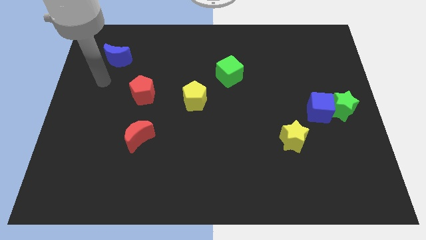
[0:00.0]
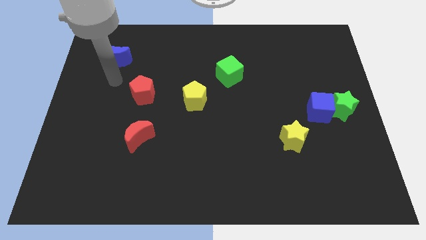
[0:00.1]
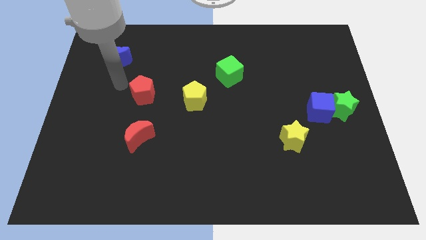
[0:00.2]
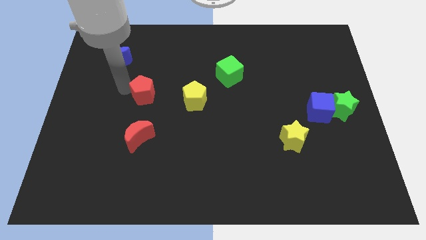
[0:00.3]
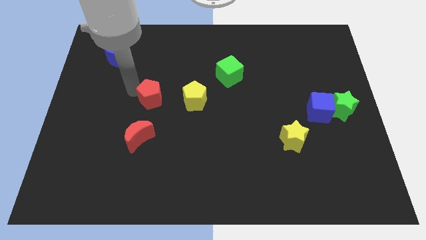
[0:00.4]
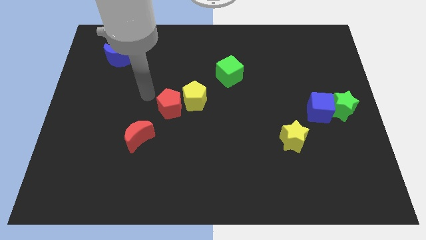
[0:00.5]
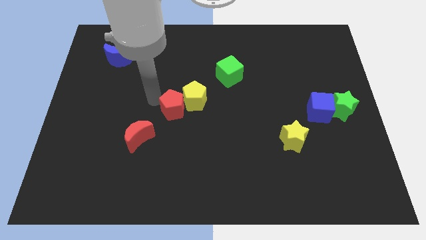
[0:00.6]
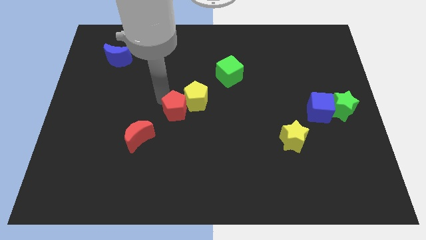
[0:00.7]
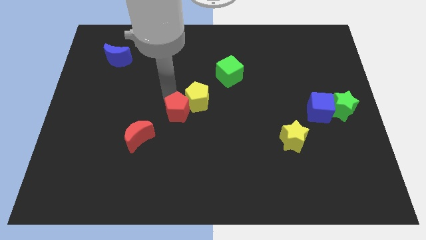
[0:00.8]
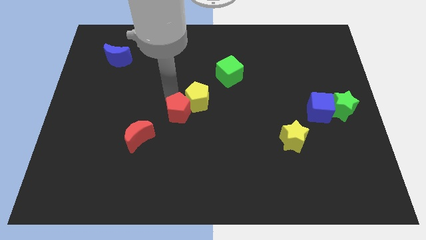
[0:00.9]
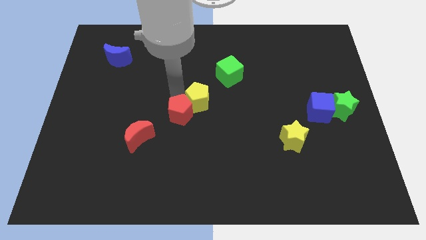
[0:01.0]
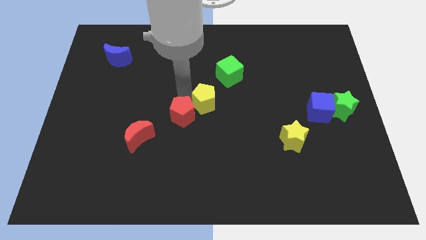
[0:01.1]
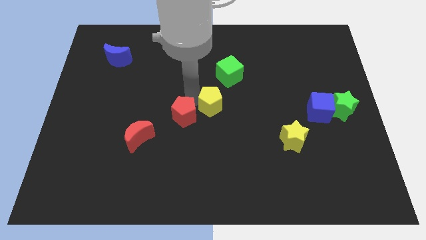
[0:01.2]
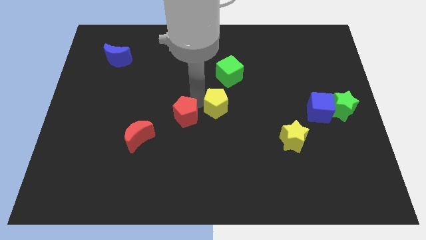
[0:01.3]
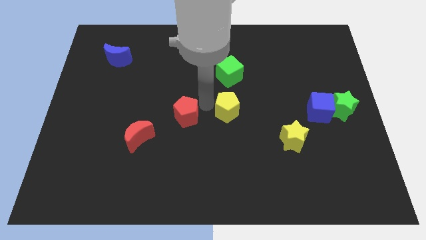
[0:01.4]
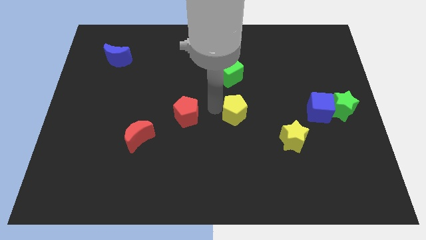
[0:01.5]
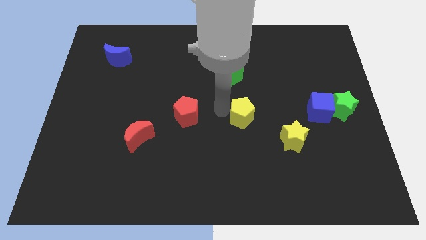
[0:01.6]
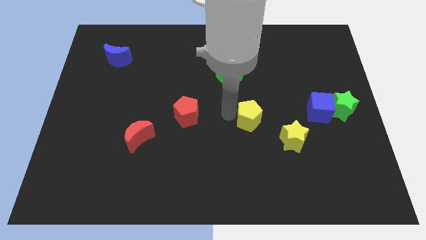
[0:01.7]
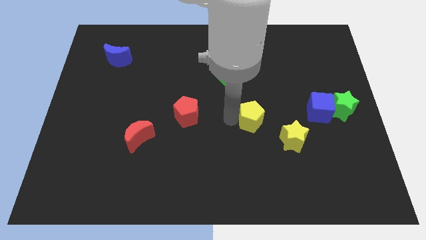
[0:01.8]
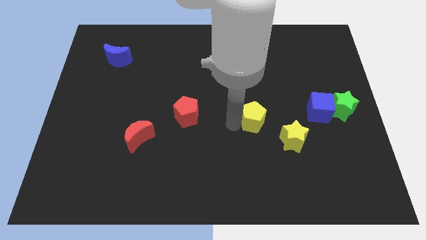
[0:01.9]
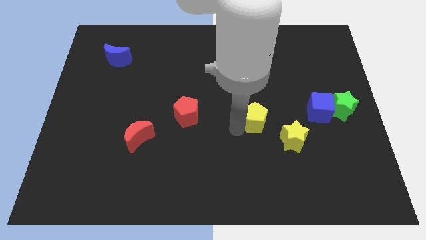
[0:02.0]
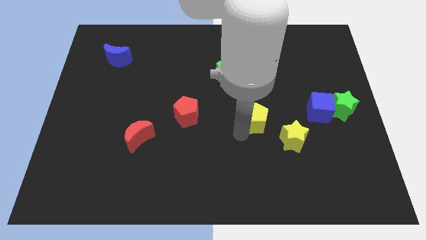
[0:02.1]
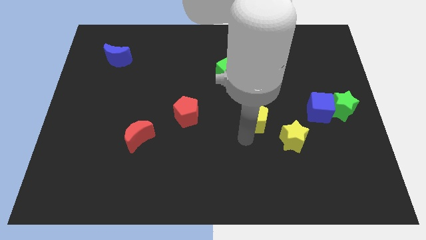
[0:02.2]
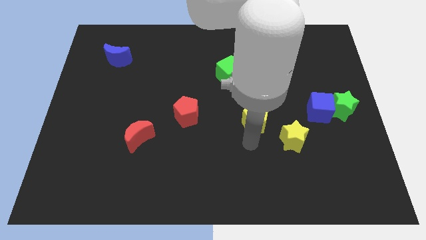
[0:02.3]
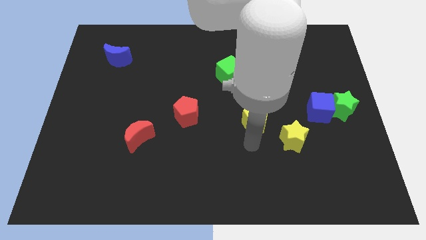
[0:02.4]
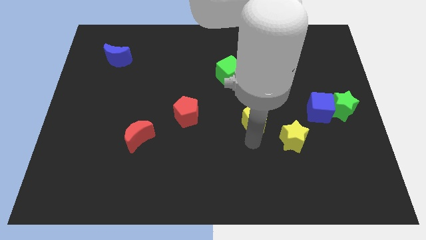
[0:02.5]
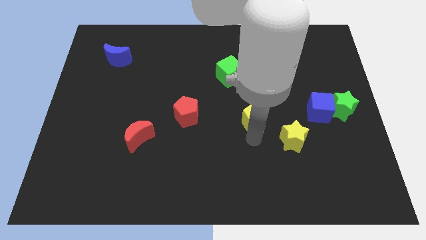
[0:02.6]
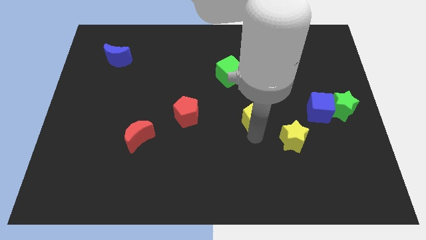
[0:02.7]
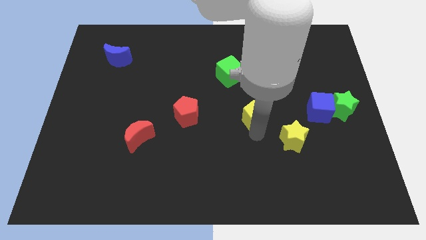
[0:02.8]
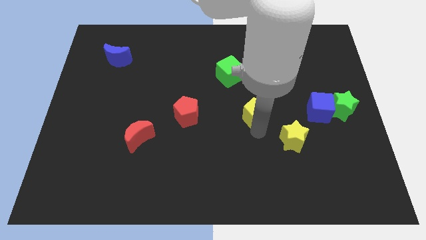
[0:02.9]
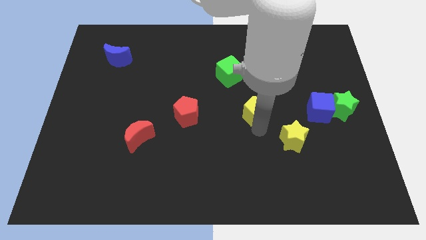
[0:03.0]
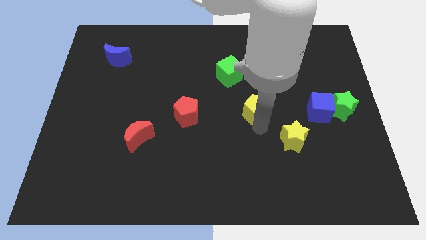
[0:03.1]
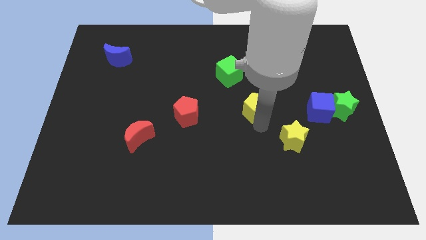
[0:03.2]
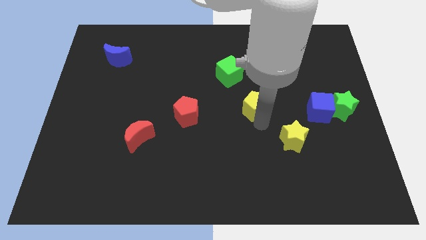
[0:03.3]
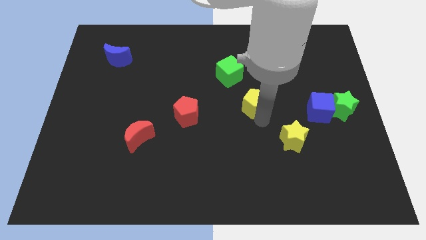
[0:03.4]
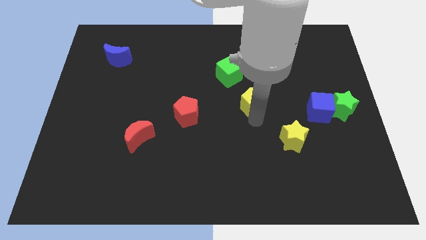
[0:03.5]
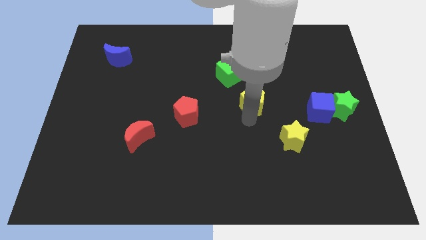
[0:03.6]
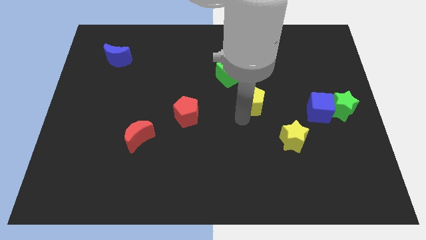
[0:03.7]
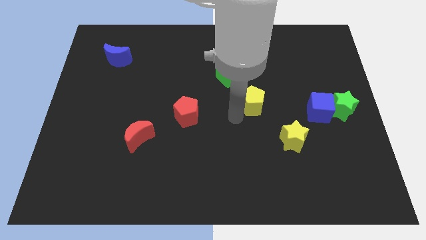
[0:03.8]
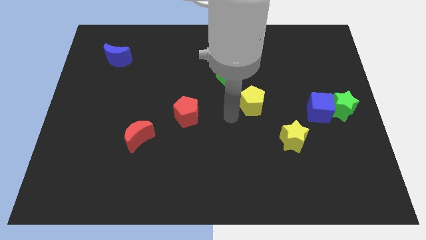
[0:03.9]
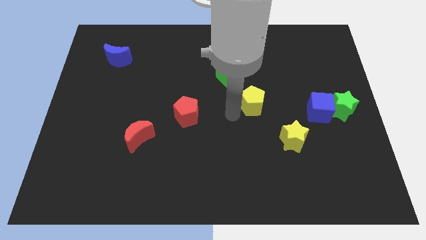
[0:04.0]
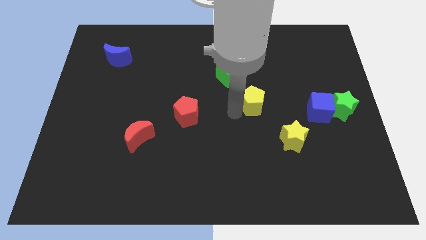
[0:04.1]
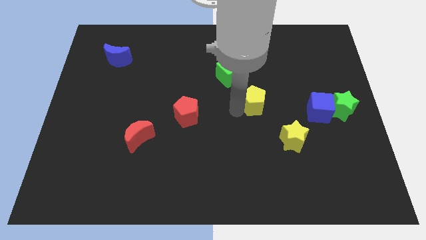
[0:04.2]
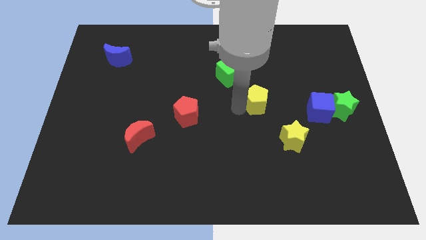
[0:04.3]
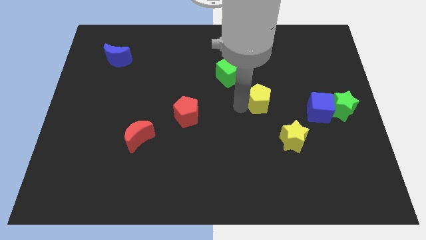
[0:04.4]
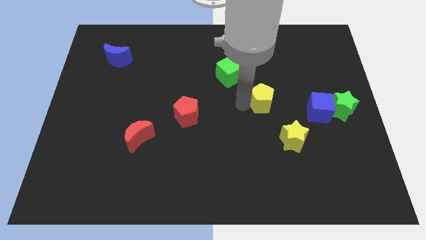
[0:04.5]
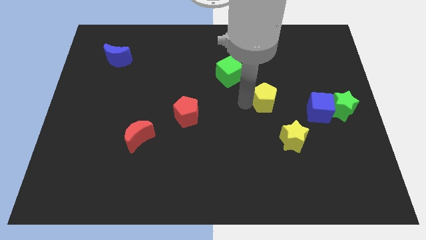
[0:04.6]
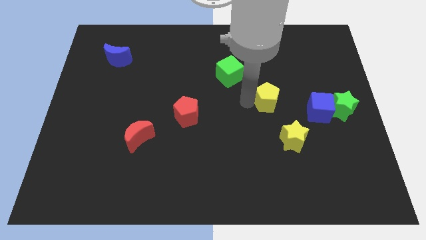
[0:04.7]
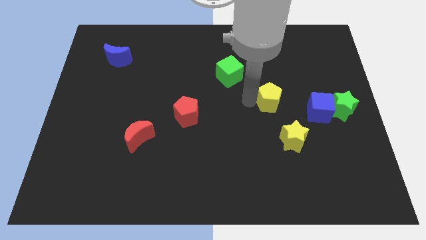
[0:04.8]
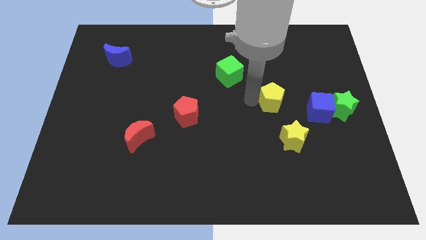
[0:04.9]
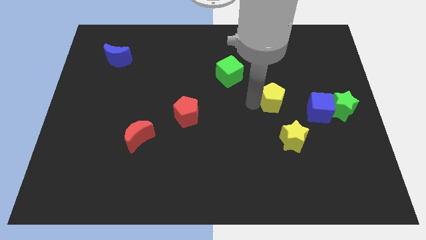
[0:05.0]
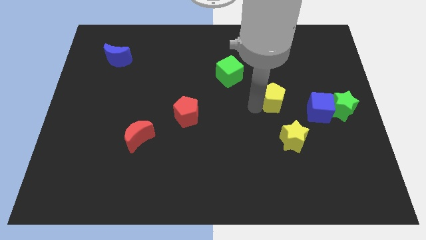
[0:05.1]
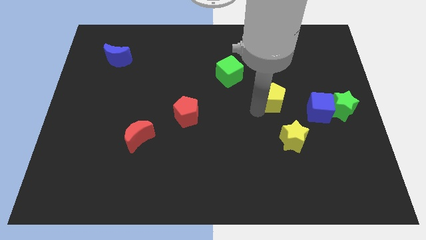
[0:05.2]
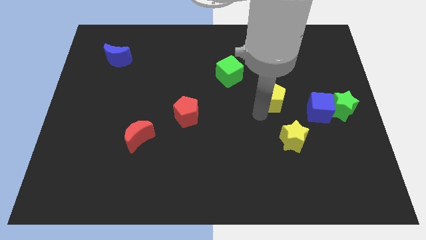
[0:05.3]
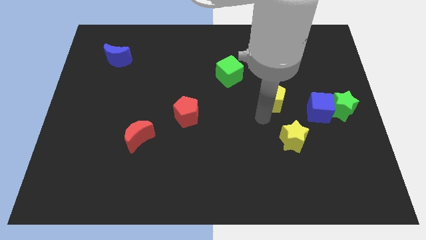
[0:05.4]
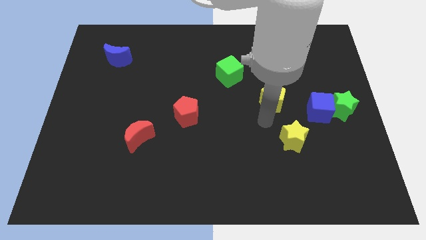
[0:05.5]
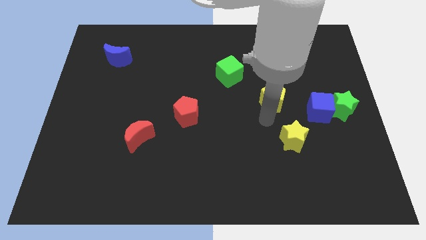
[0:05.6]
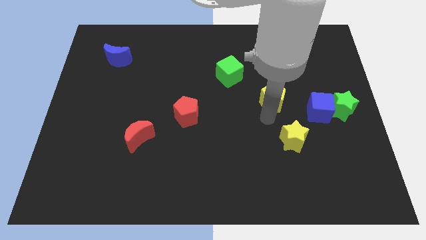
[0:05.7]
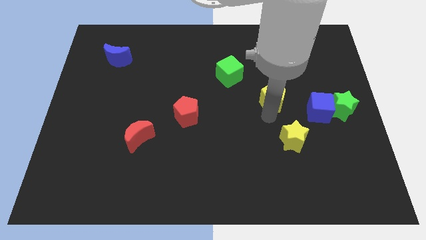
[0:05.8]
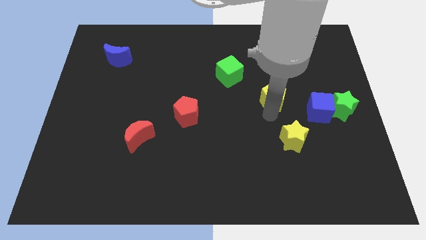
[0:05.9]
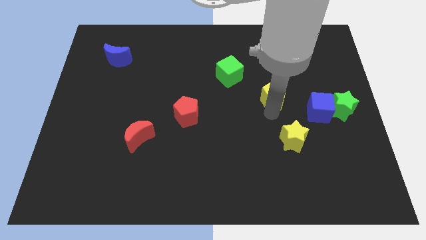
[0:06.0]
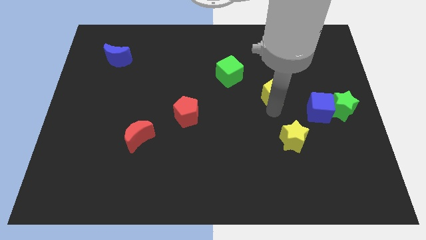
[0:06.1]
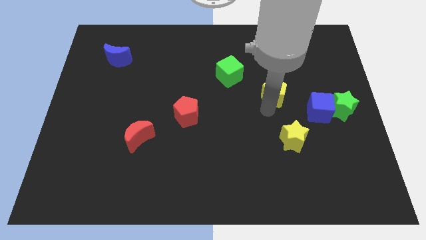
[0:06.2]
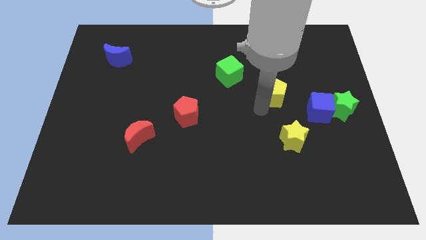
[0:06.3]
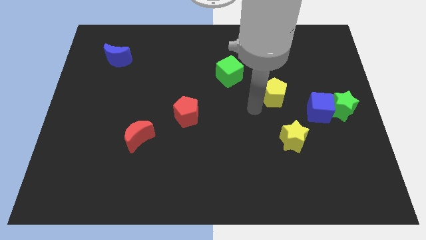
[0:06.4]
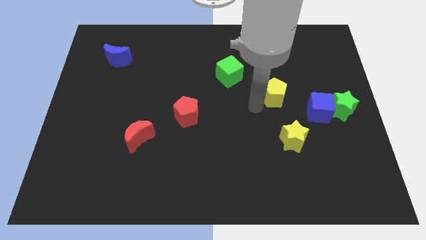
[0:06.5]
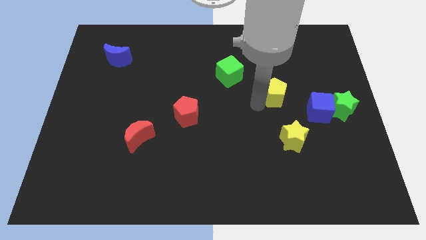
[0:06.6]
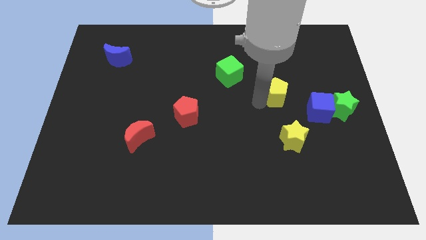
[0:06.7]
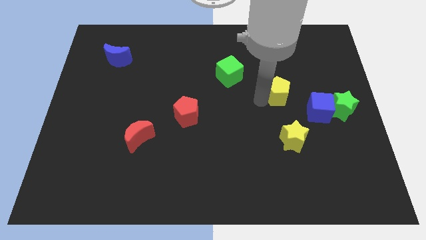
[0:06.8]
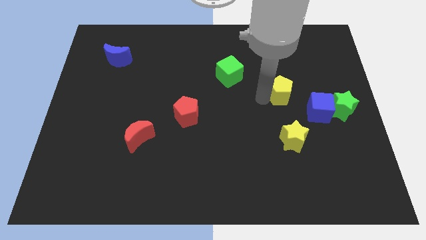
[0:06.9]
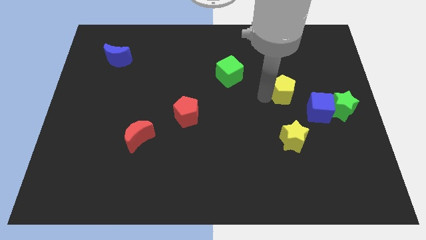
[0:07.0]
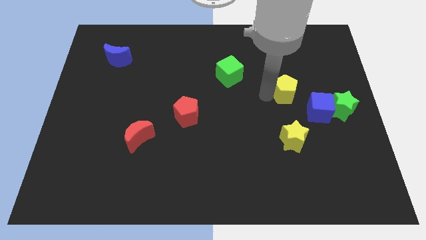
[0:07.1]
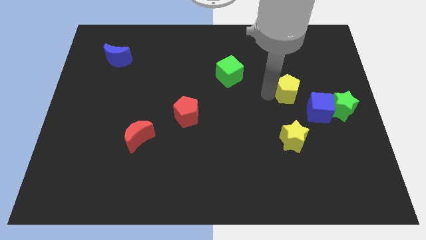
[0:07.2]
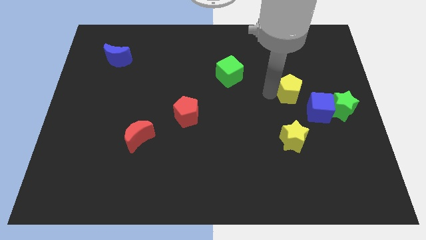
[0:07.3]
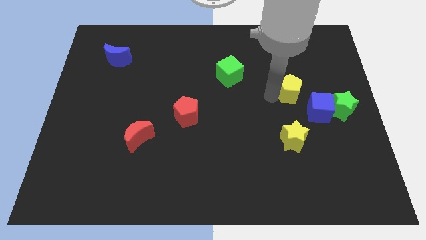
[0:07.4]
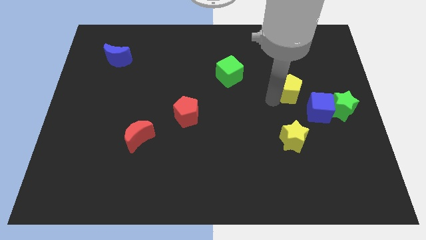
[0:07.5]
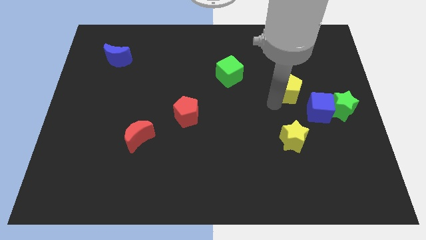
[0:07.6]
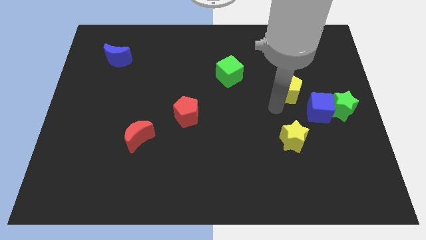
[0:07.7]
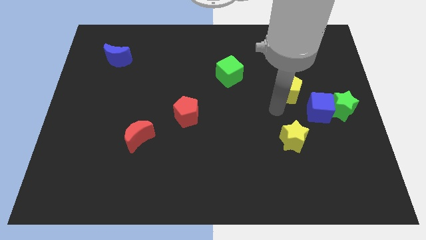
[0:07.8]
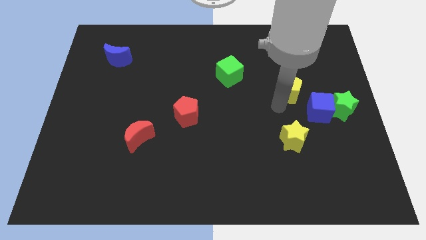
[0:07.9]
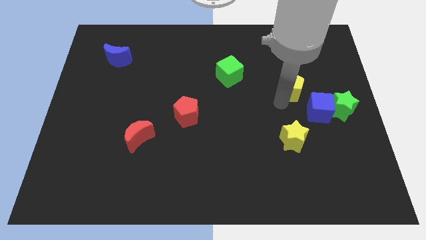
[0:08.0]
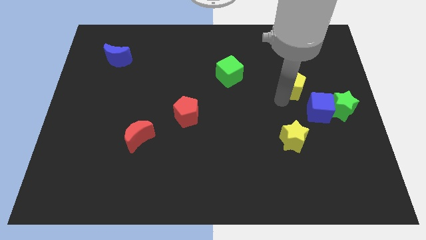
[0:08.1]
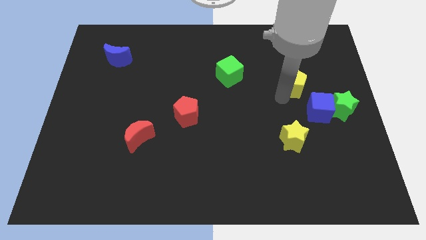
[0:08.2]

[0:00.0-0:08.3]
move the yellow pentagon to the top of the blue cube
